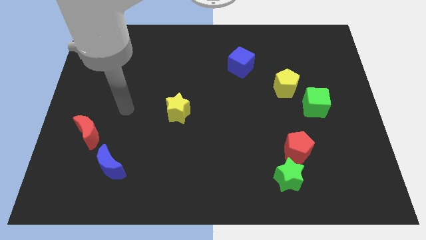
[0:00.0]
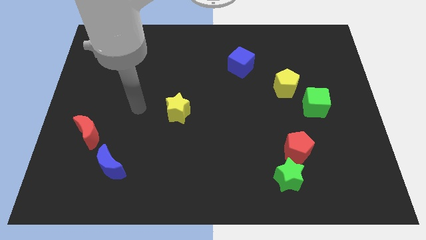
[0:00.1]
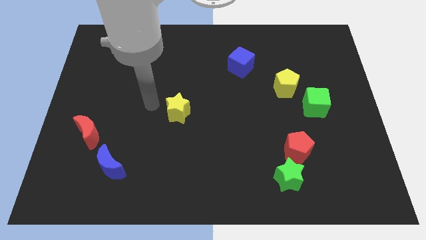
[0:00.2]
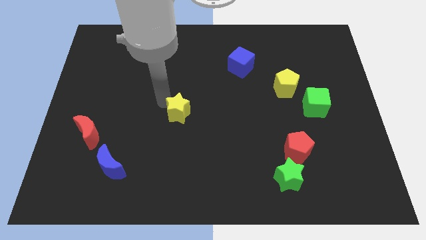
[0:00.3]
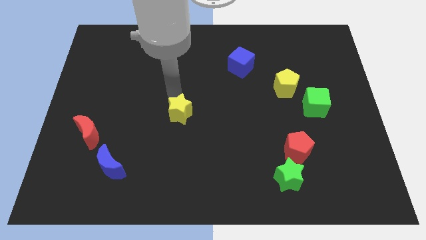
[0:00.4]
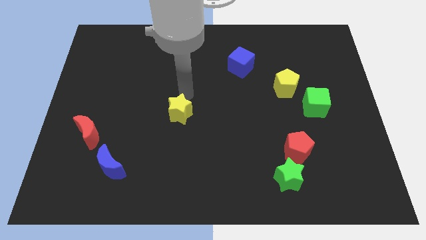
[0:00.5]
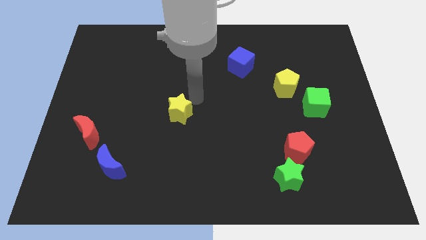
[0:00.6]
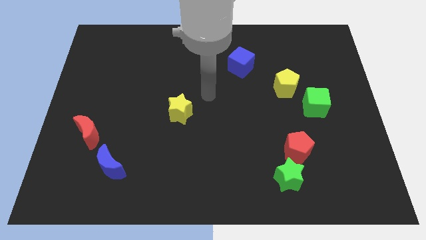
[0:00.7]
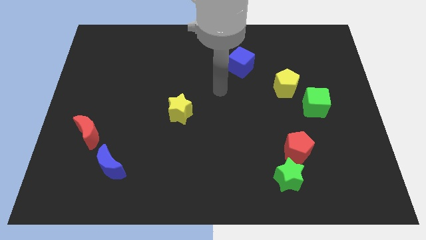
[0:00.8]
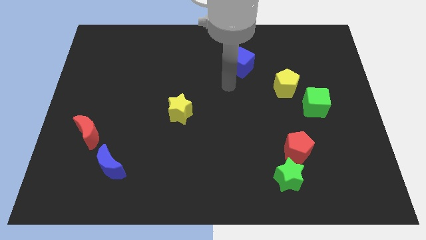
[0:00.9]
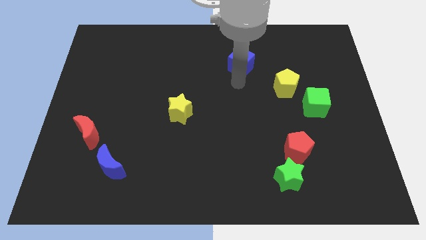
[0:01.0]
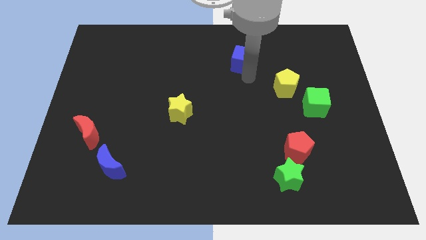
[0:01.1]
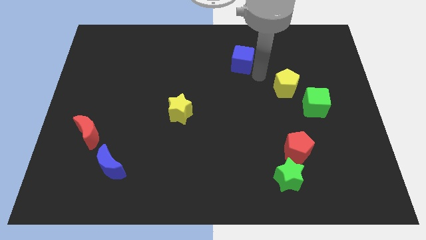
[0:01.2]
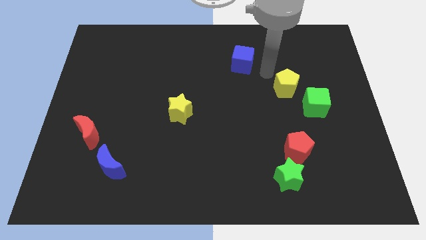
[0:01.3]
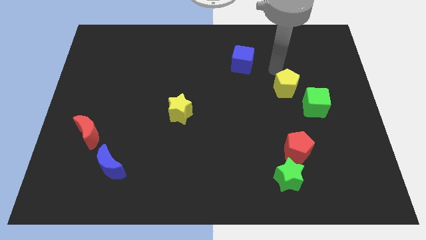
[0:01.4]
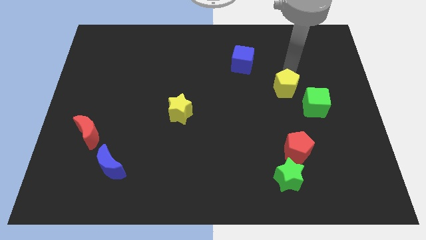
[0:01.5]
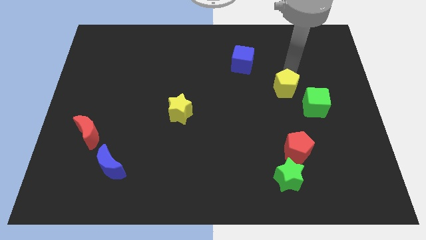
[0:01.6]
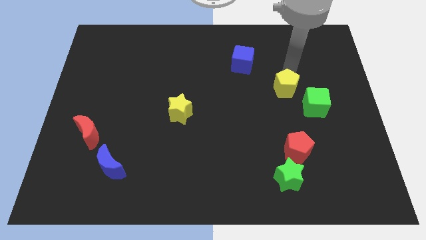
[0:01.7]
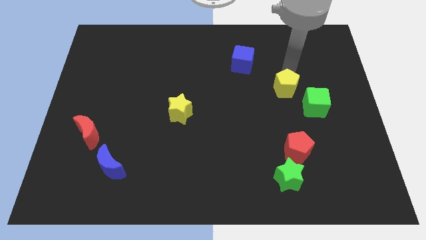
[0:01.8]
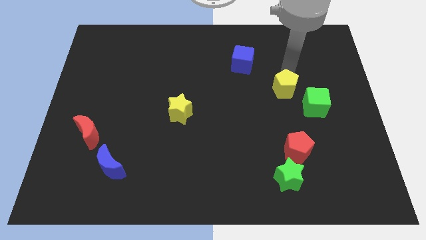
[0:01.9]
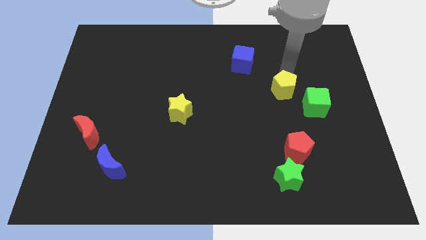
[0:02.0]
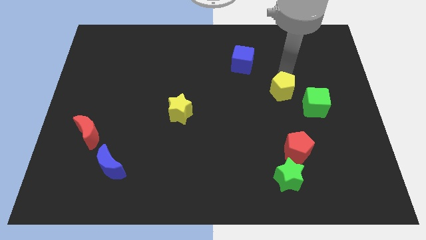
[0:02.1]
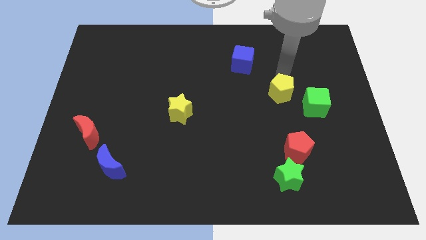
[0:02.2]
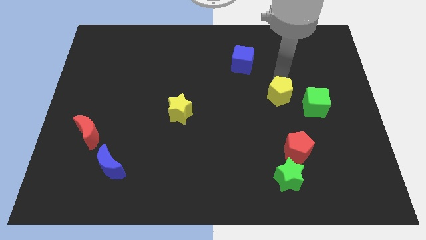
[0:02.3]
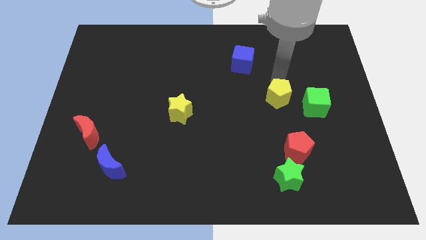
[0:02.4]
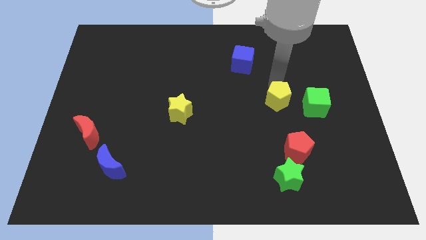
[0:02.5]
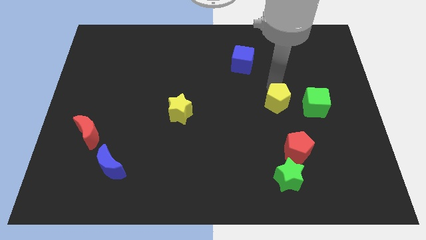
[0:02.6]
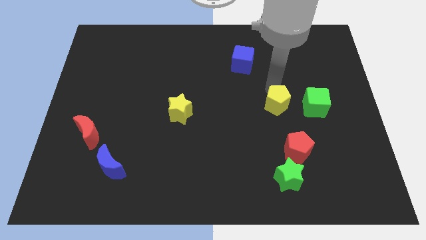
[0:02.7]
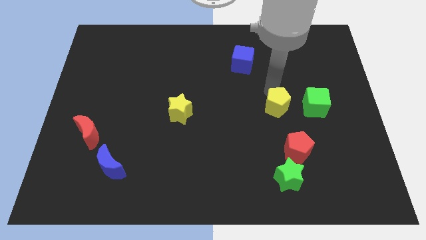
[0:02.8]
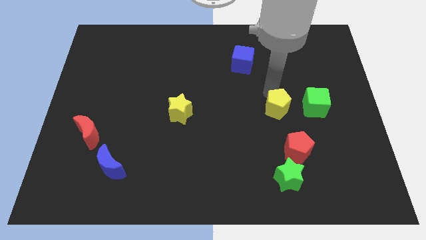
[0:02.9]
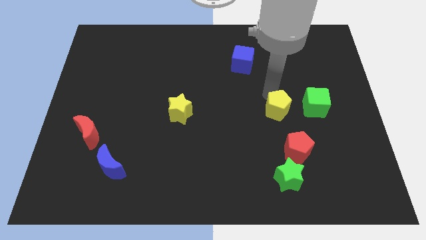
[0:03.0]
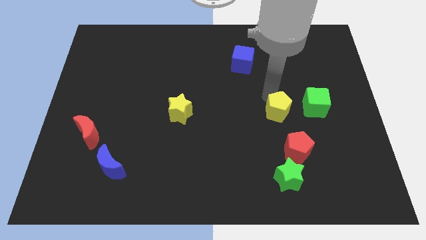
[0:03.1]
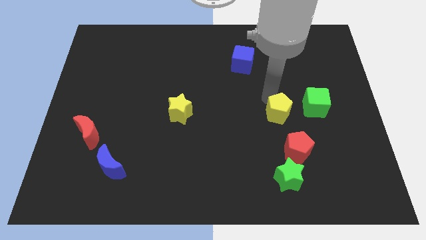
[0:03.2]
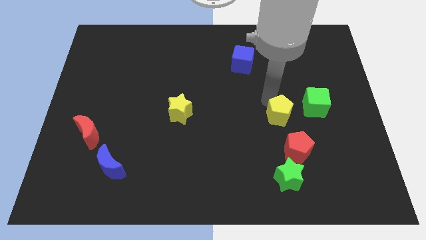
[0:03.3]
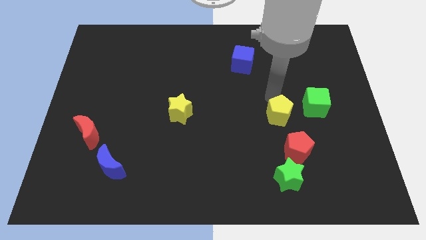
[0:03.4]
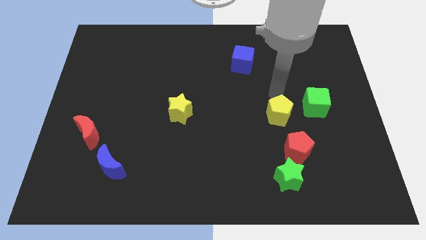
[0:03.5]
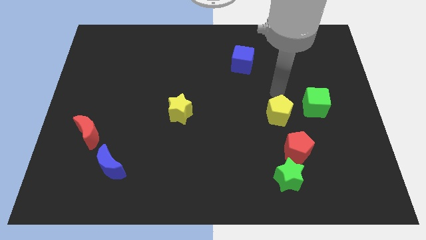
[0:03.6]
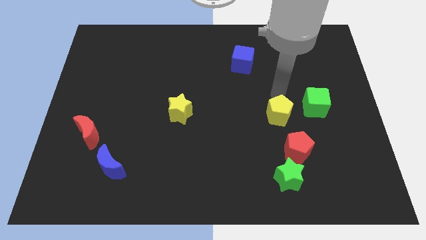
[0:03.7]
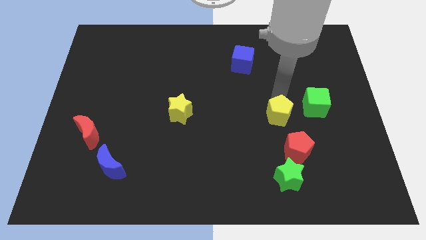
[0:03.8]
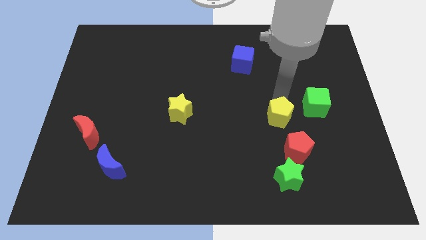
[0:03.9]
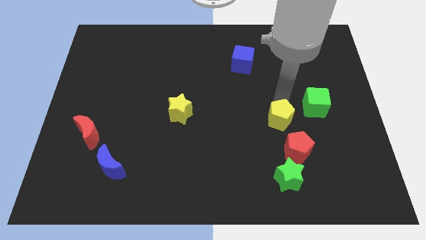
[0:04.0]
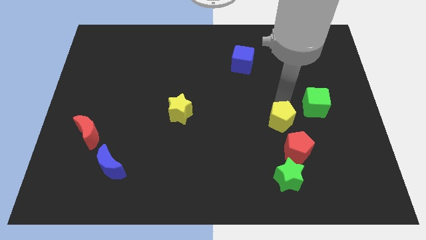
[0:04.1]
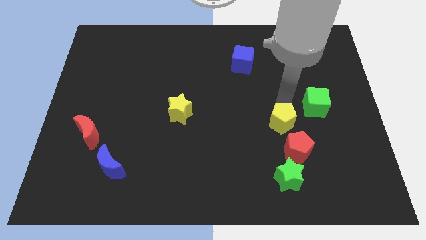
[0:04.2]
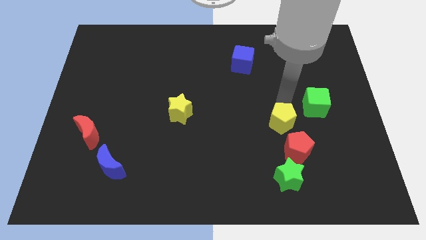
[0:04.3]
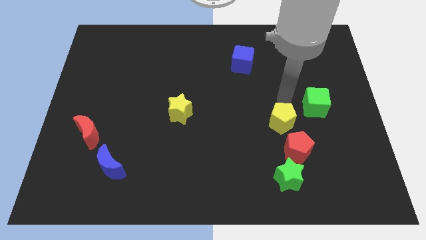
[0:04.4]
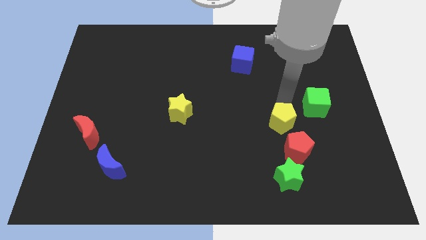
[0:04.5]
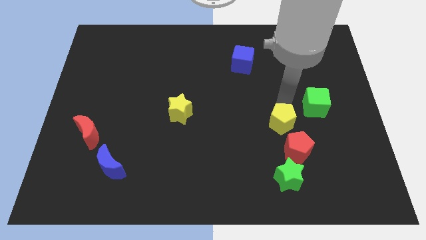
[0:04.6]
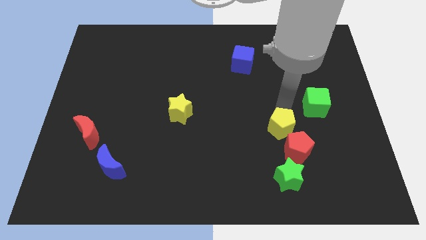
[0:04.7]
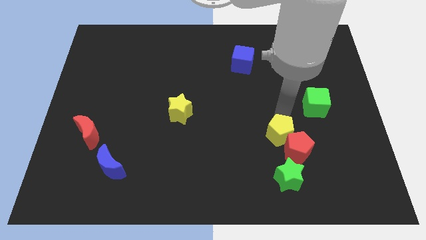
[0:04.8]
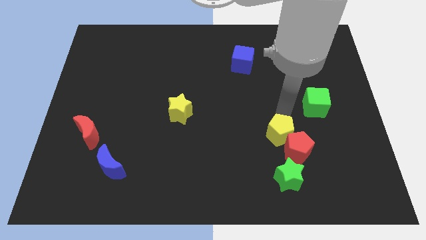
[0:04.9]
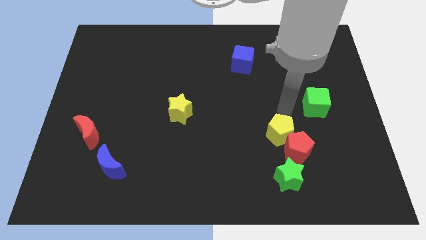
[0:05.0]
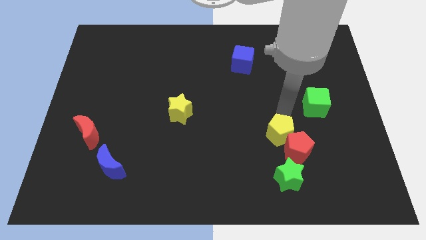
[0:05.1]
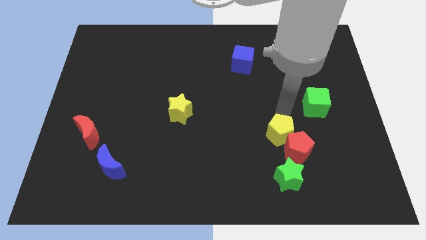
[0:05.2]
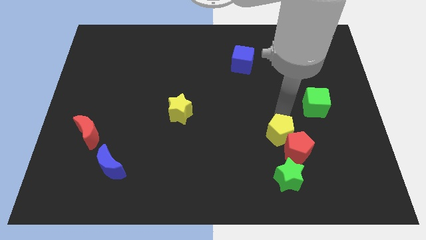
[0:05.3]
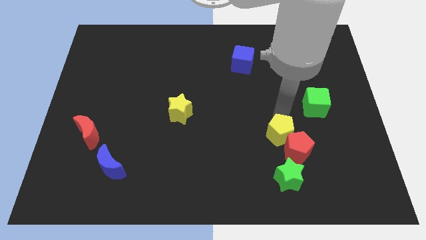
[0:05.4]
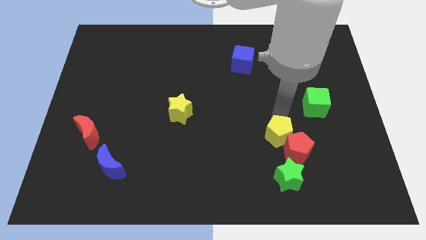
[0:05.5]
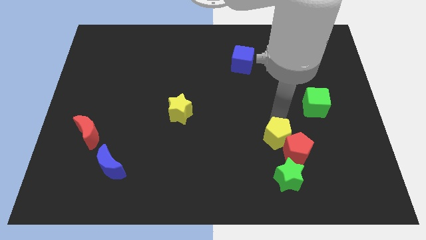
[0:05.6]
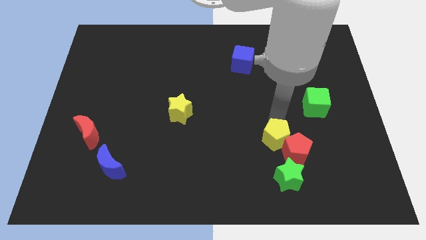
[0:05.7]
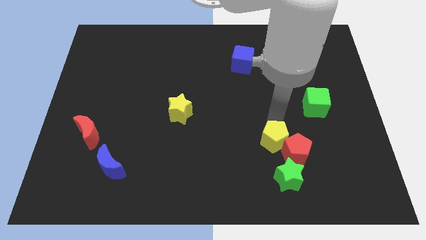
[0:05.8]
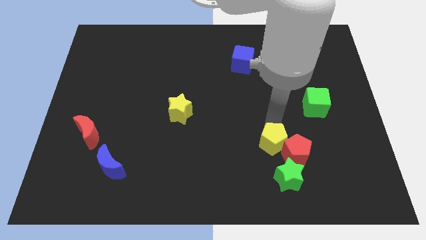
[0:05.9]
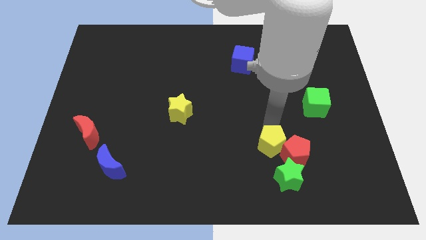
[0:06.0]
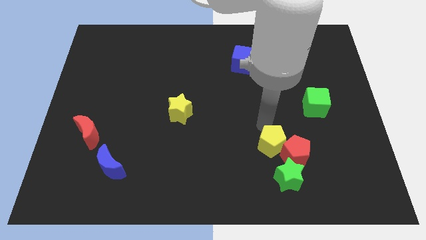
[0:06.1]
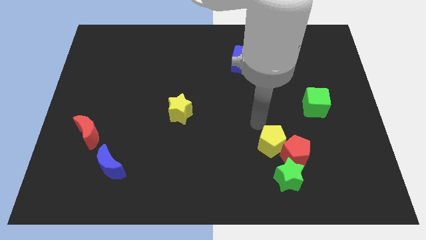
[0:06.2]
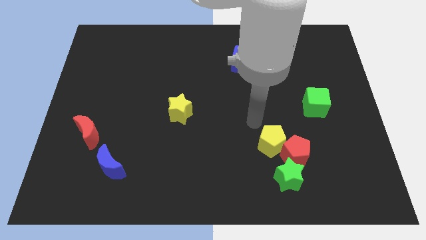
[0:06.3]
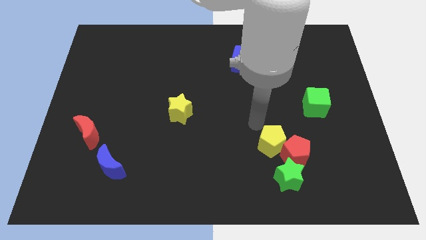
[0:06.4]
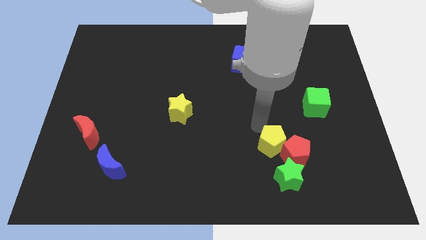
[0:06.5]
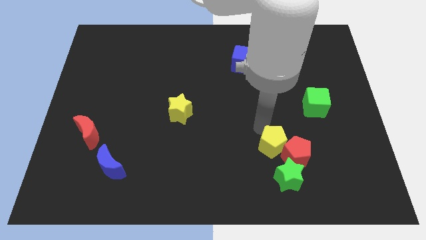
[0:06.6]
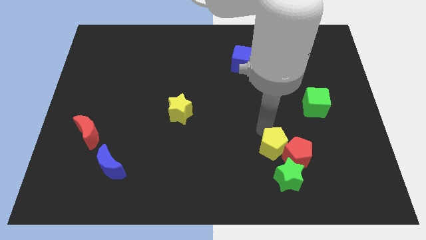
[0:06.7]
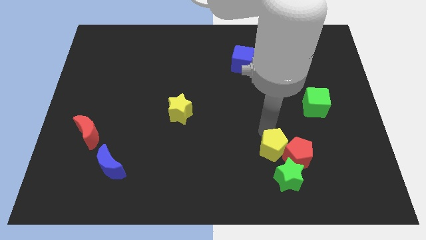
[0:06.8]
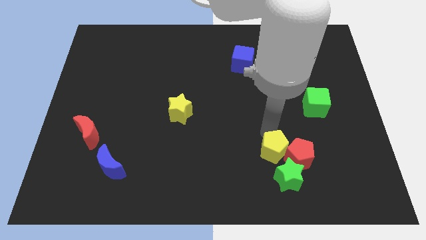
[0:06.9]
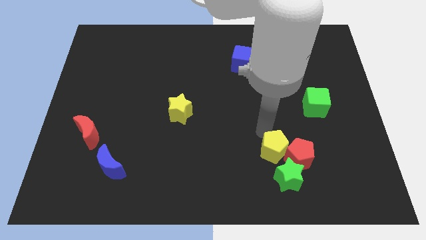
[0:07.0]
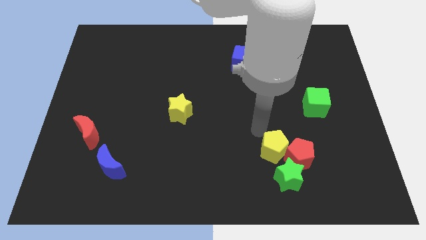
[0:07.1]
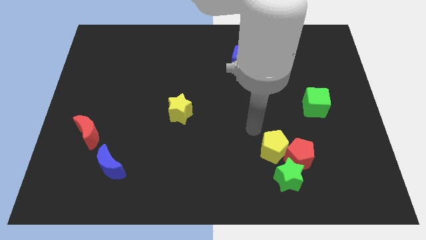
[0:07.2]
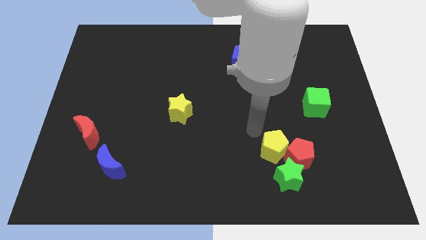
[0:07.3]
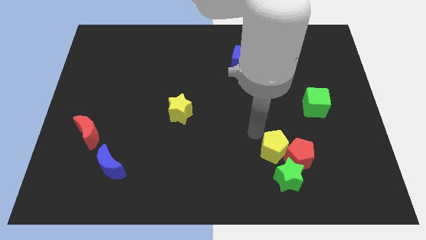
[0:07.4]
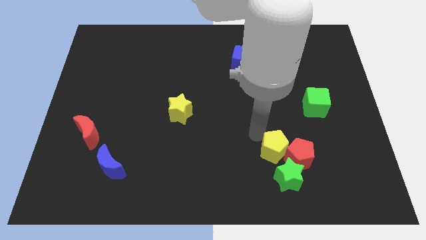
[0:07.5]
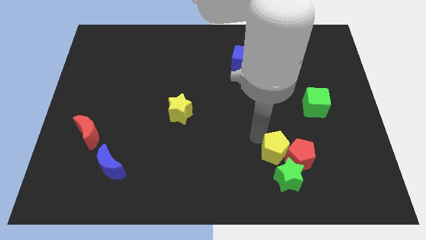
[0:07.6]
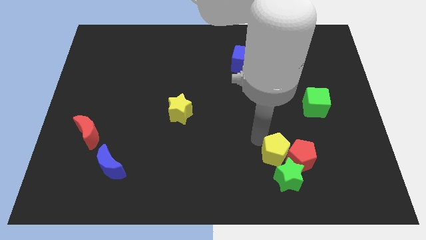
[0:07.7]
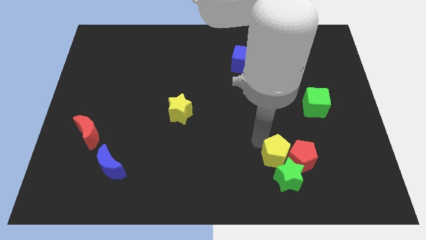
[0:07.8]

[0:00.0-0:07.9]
slide the yellow pentagon to the green star
